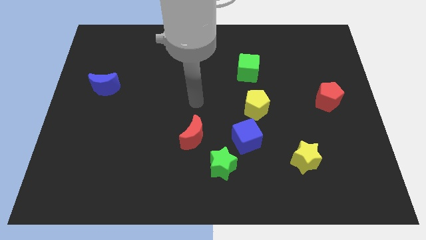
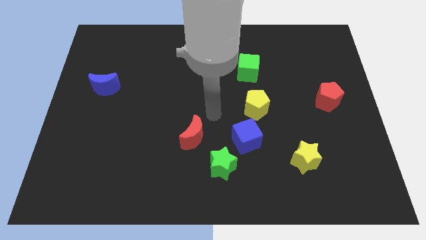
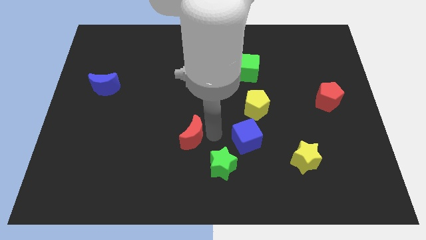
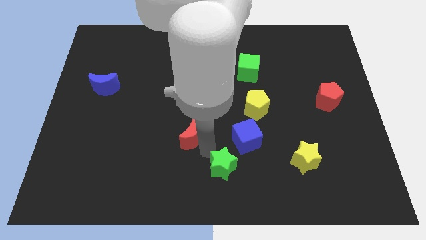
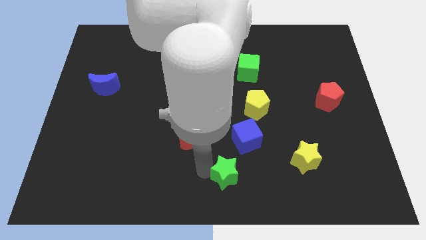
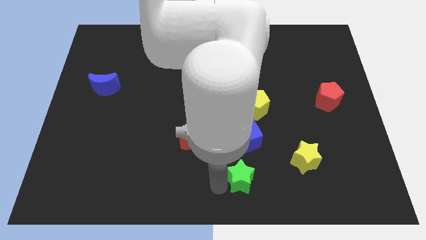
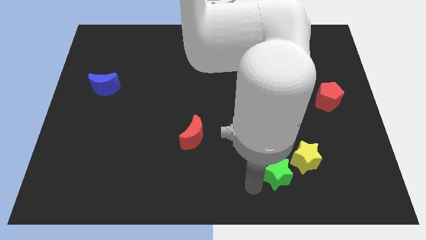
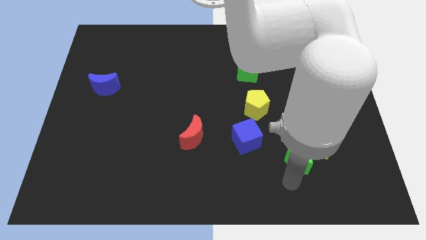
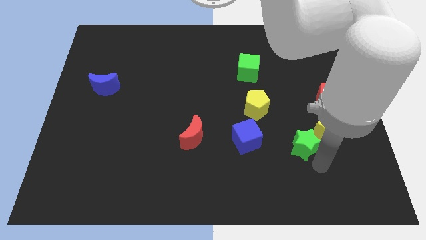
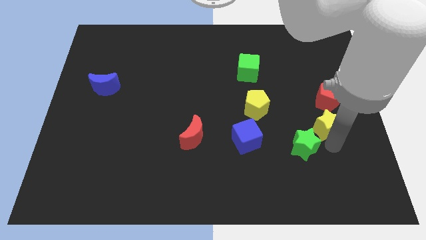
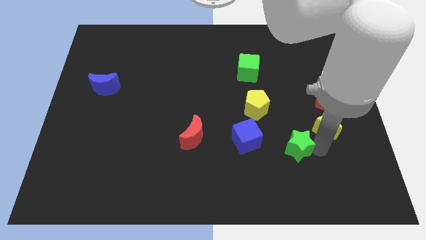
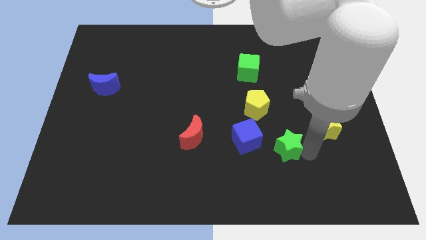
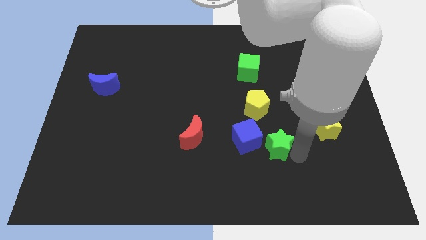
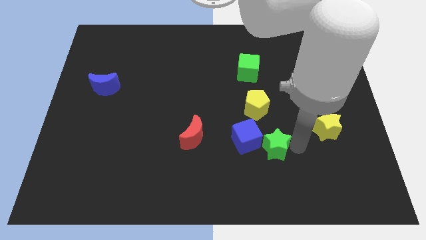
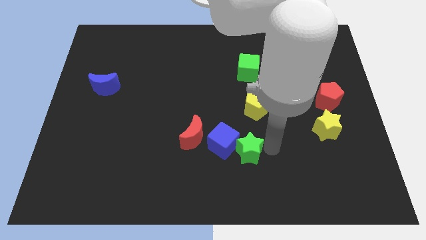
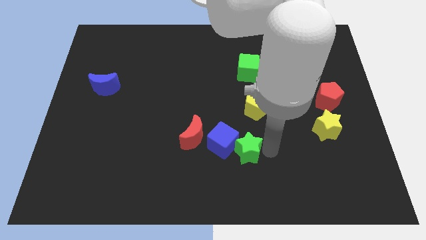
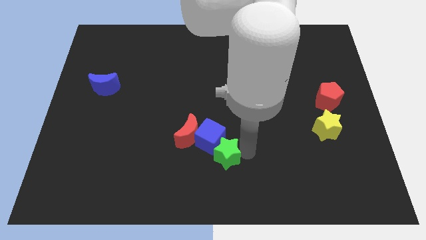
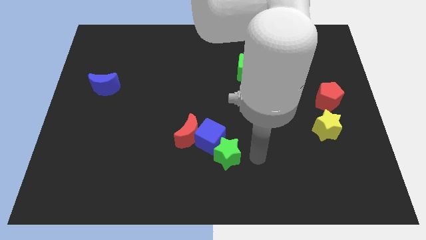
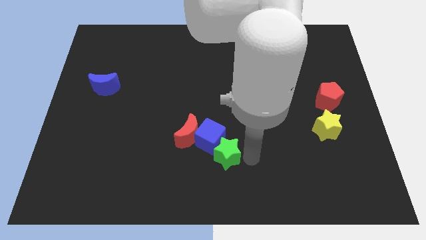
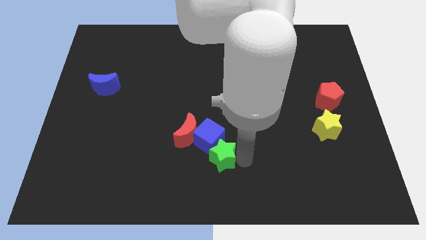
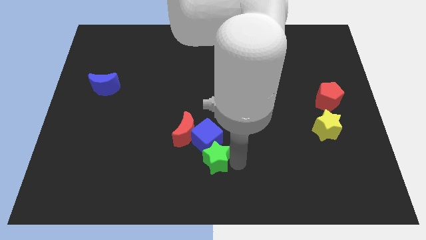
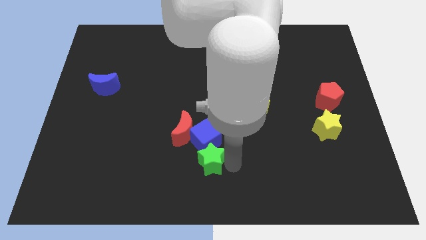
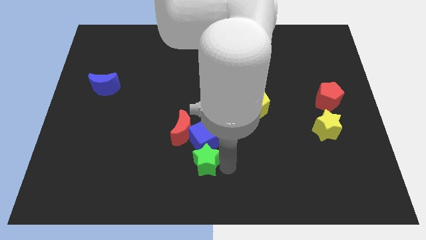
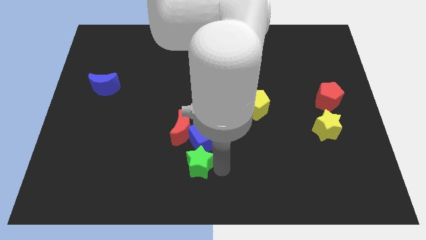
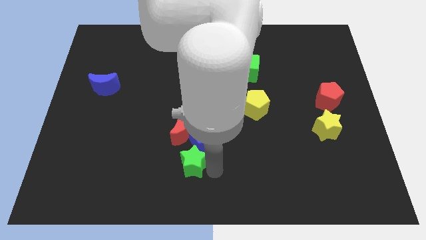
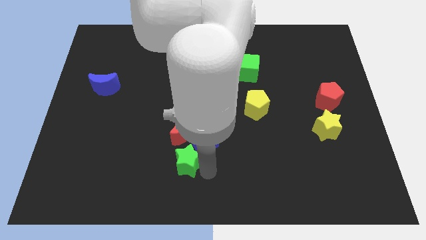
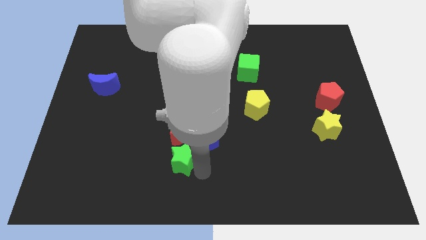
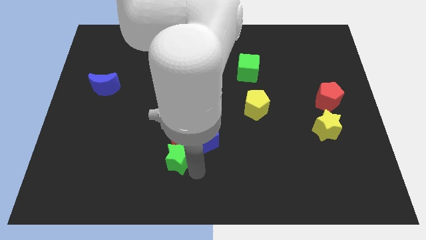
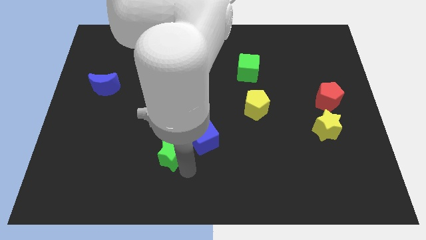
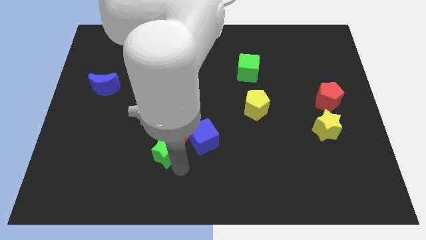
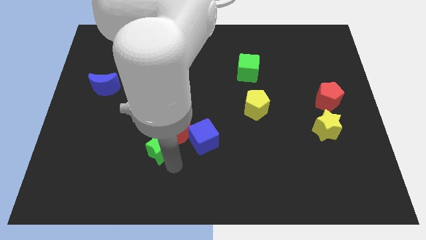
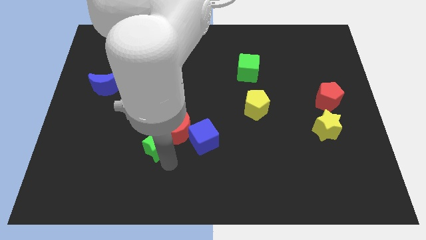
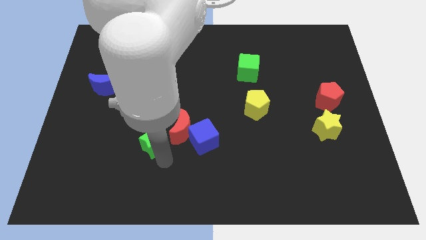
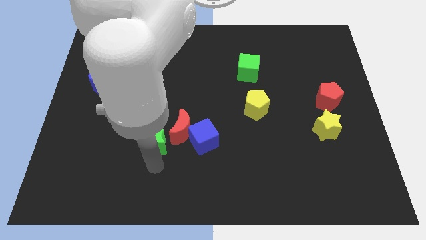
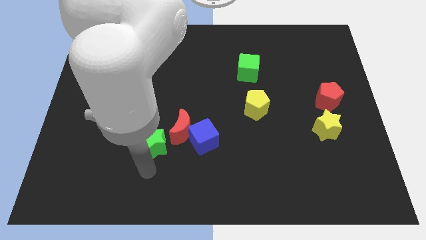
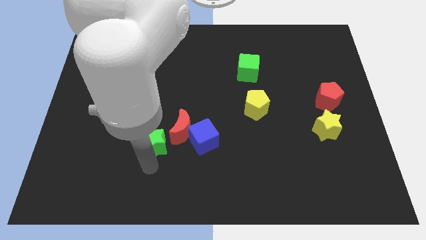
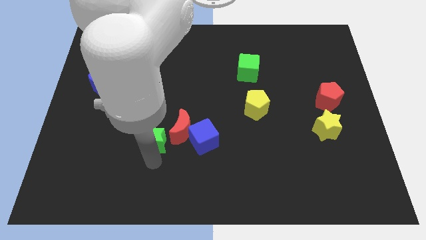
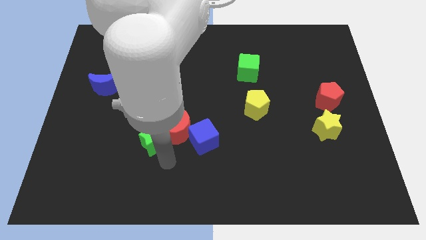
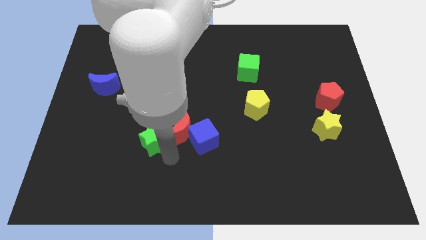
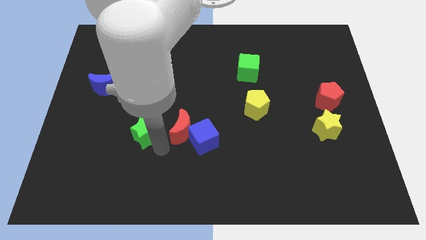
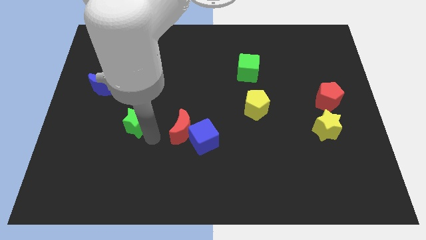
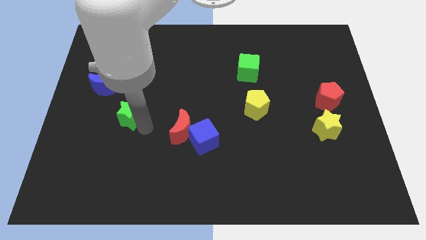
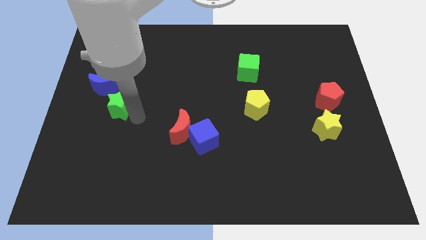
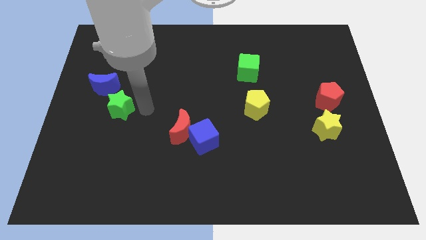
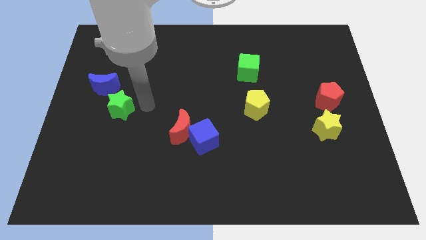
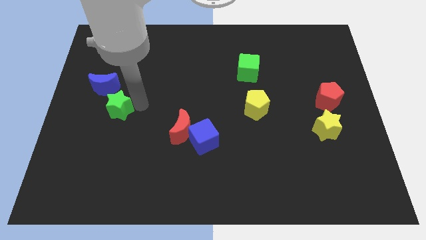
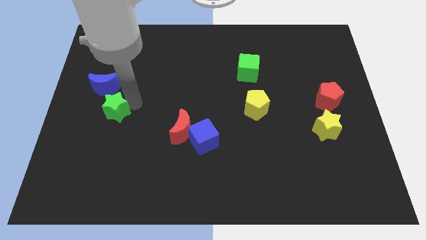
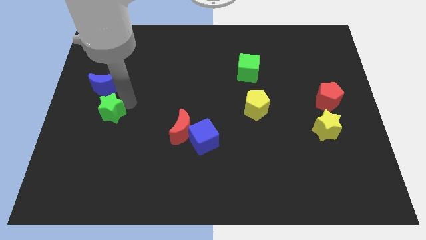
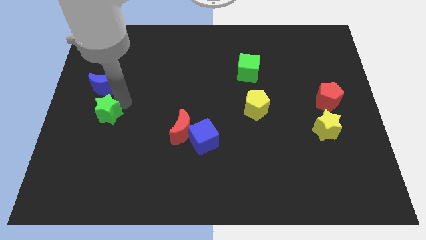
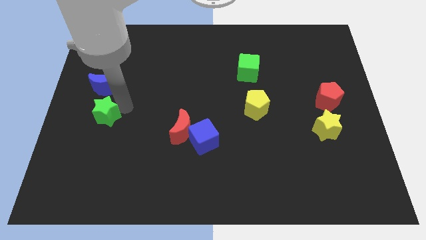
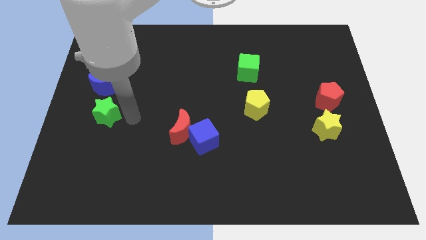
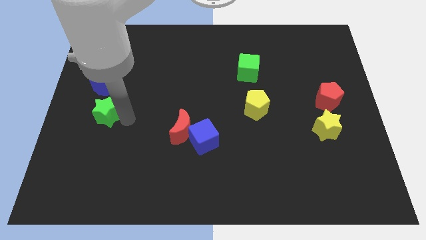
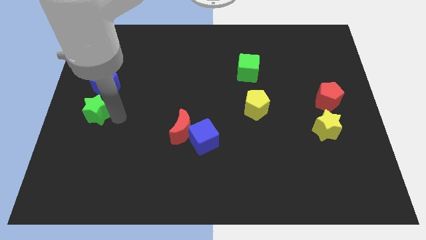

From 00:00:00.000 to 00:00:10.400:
push the green star to the left side of the board

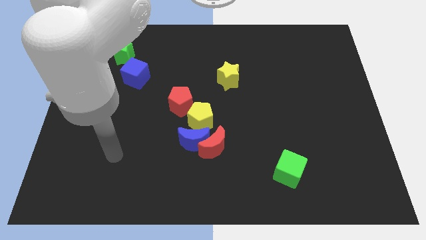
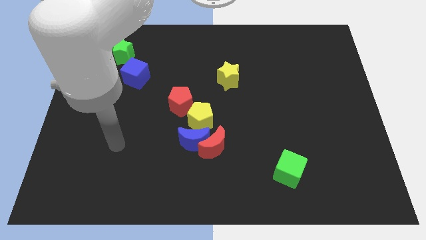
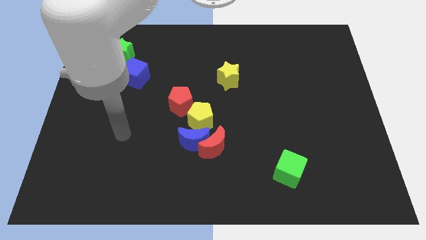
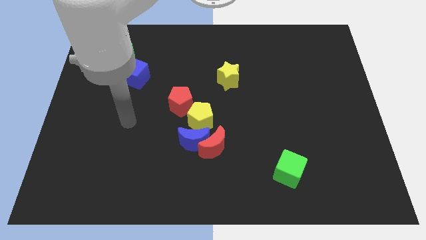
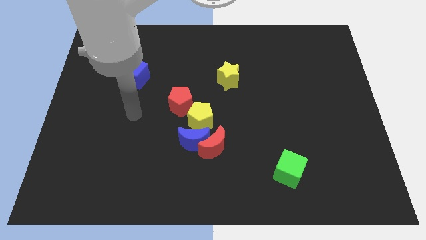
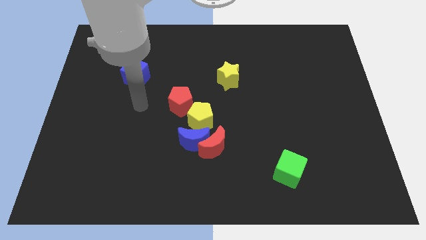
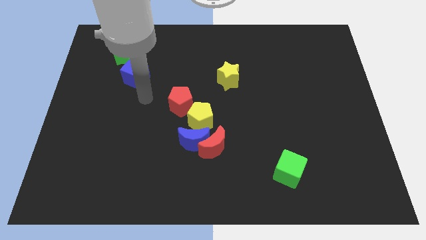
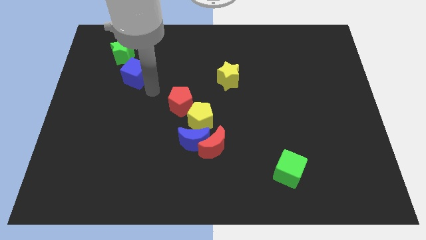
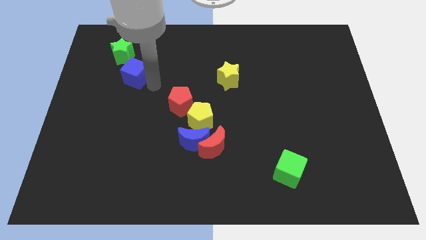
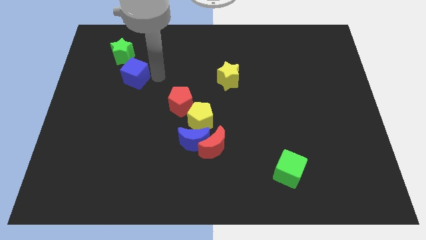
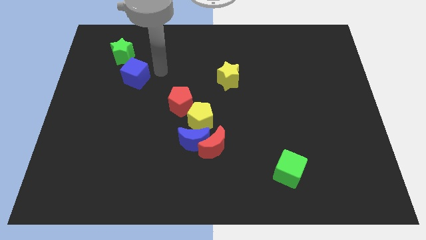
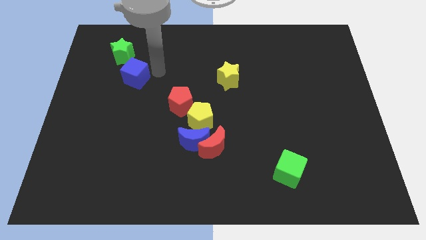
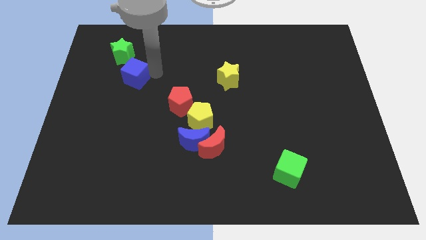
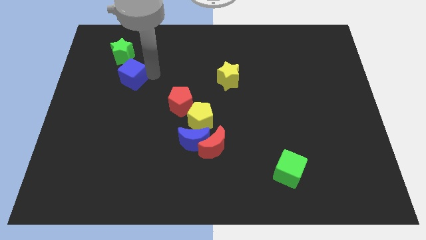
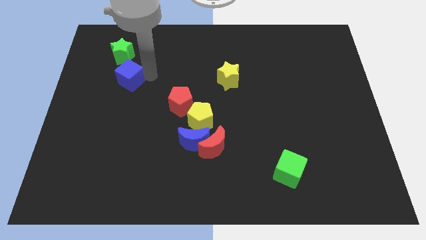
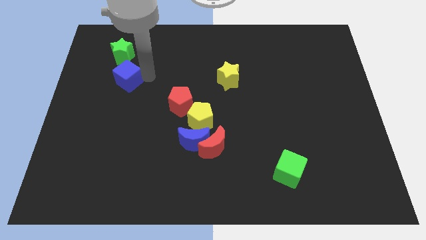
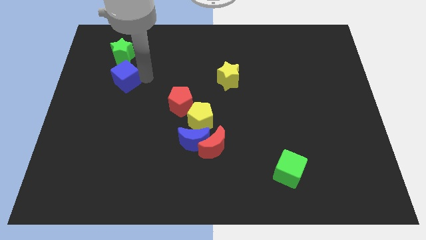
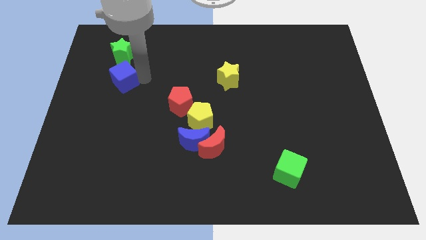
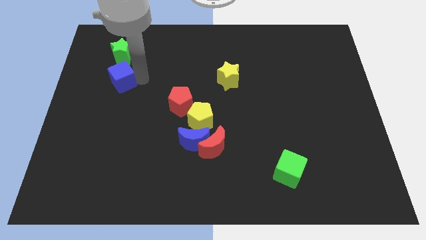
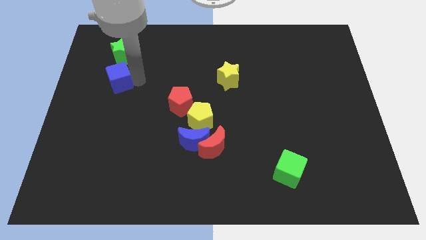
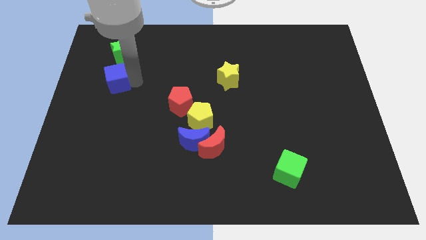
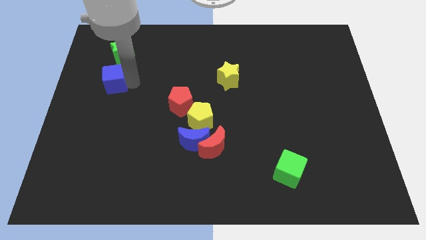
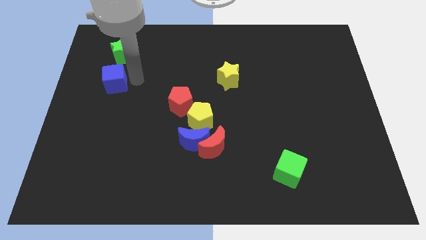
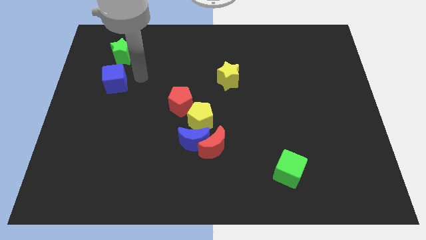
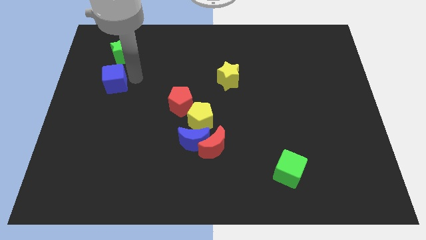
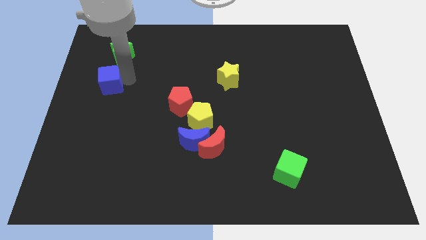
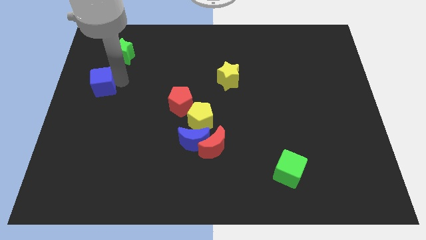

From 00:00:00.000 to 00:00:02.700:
slide the blue cube to the left side

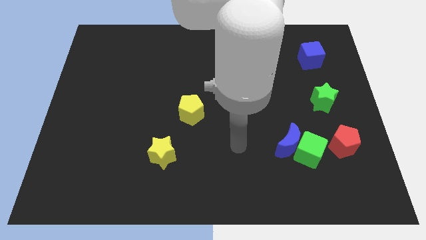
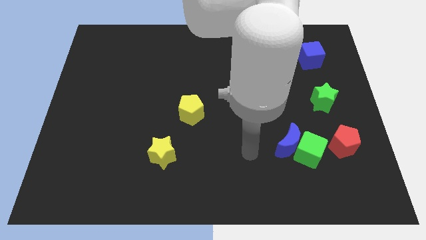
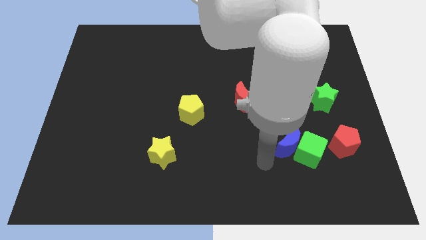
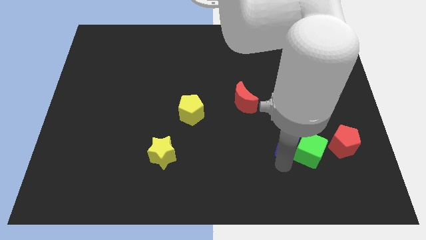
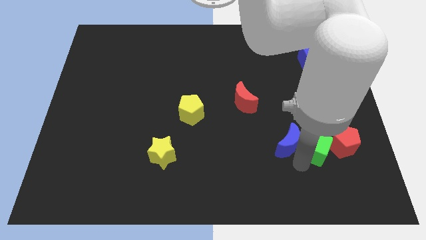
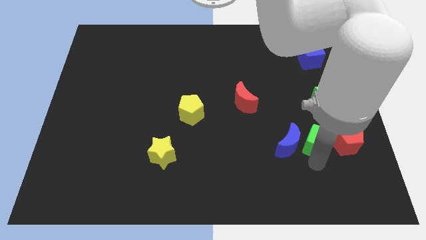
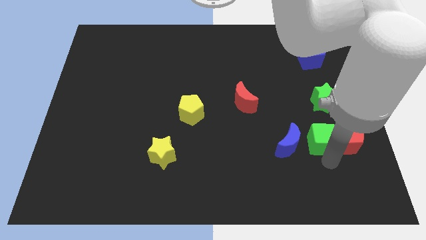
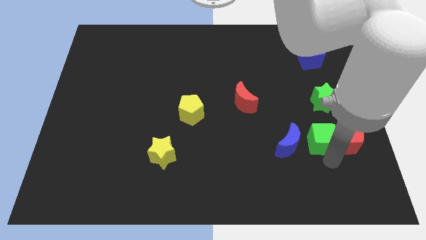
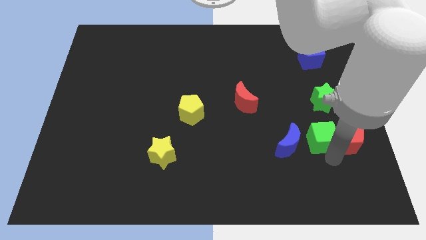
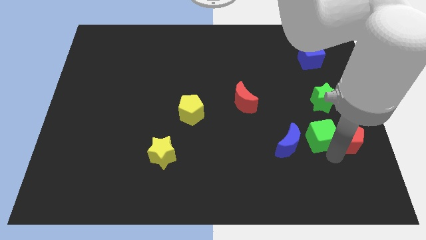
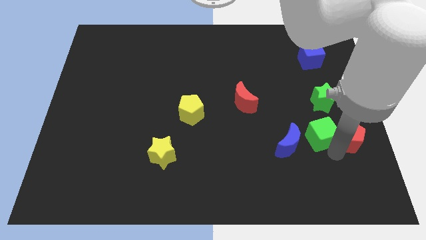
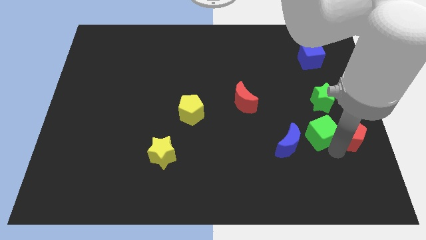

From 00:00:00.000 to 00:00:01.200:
slide the red pentagon to the right side
